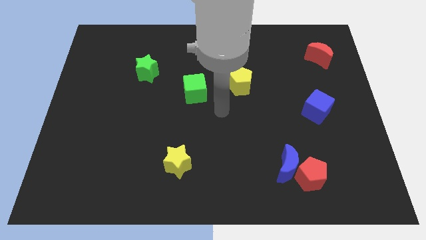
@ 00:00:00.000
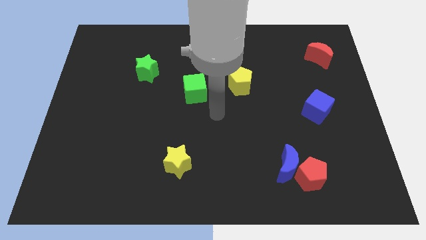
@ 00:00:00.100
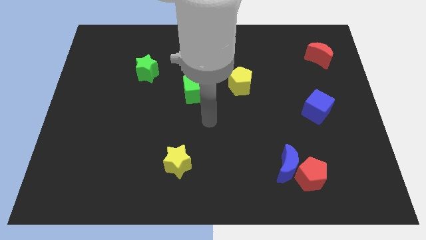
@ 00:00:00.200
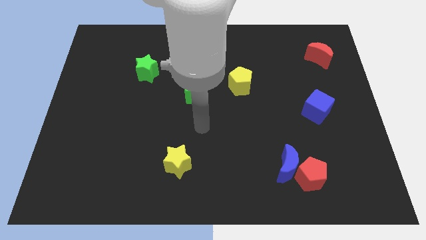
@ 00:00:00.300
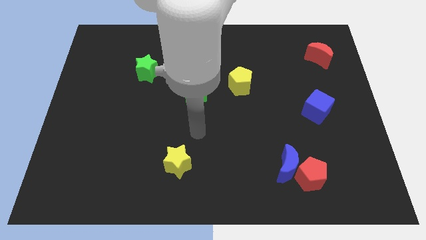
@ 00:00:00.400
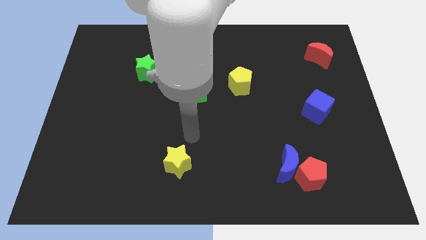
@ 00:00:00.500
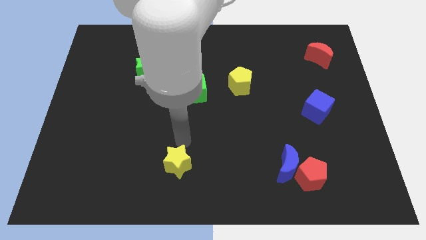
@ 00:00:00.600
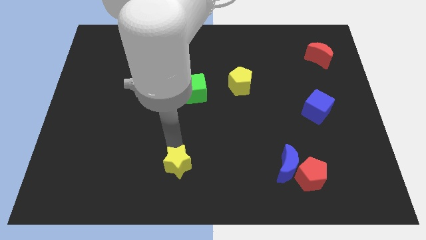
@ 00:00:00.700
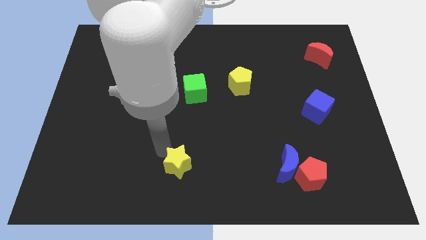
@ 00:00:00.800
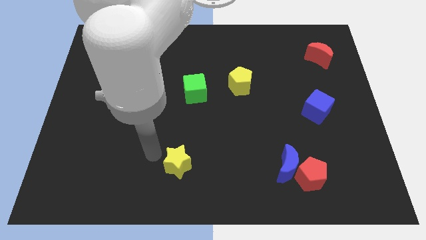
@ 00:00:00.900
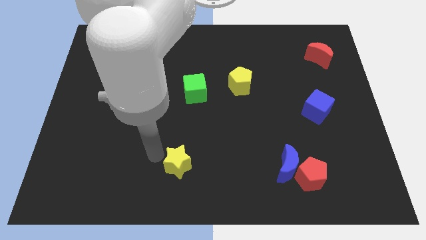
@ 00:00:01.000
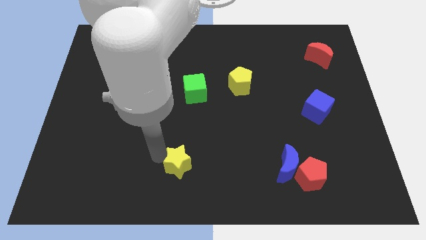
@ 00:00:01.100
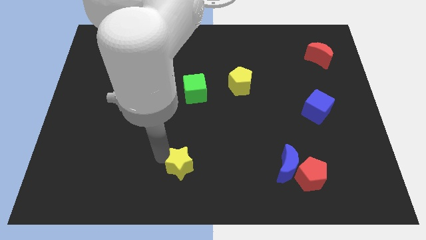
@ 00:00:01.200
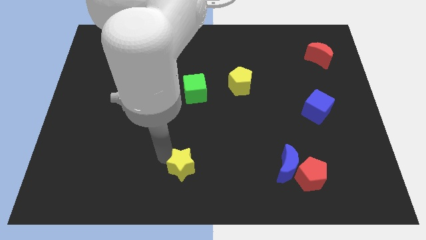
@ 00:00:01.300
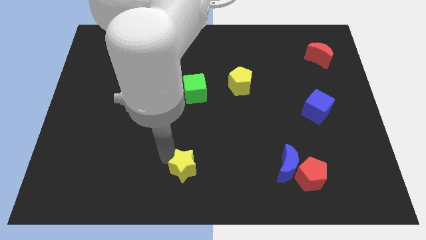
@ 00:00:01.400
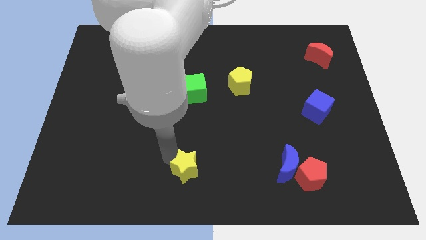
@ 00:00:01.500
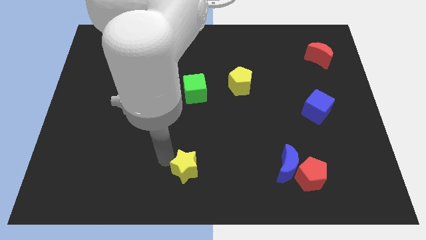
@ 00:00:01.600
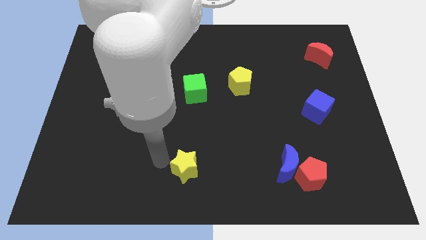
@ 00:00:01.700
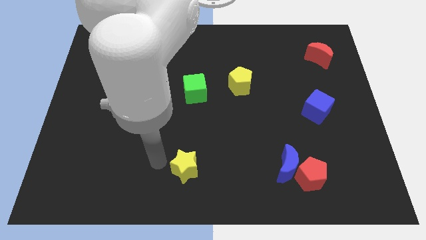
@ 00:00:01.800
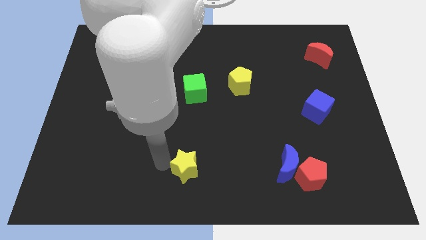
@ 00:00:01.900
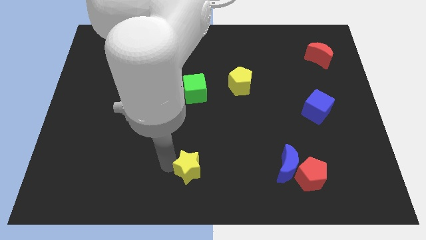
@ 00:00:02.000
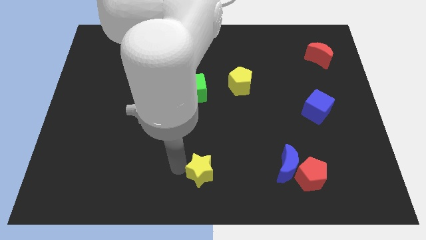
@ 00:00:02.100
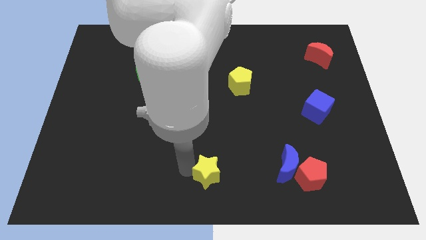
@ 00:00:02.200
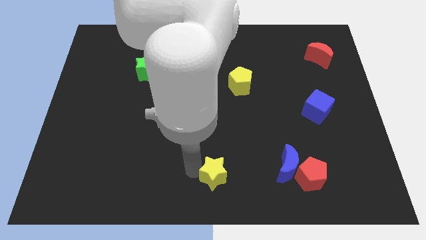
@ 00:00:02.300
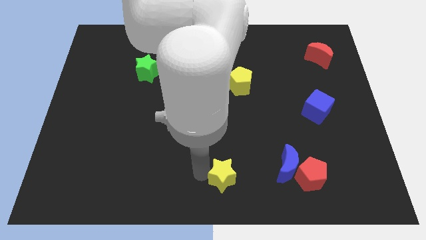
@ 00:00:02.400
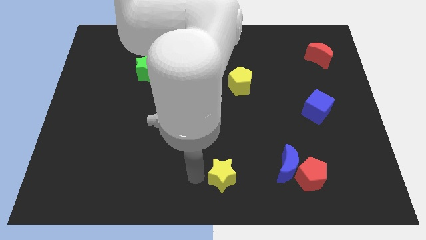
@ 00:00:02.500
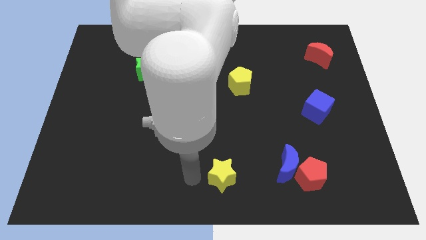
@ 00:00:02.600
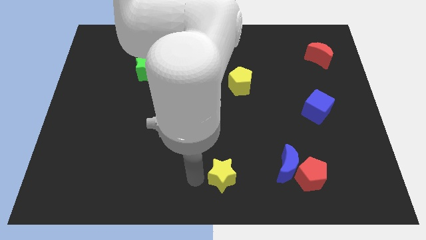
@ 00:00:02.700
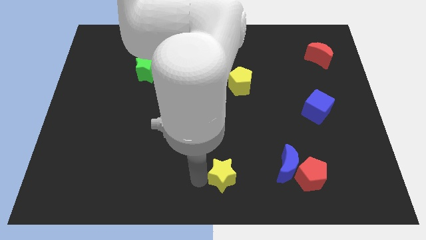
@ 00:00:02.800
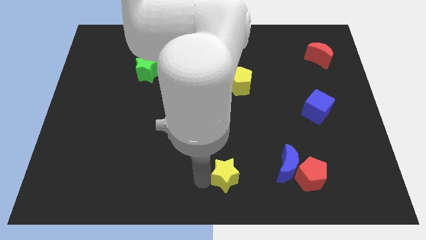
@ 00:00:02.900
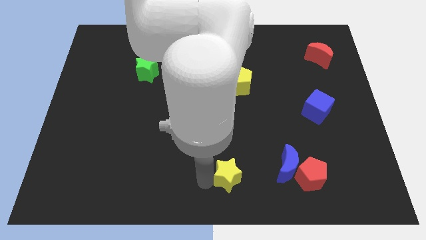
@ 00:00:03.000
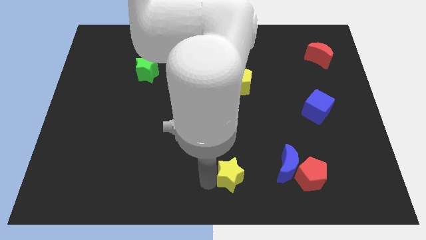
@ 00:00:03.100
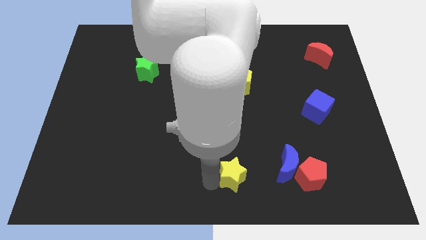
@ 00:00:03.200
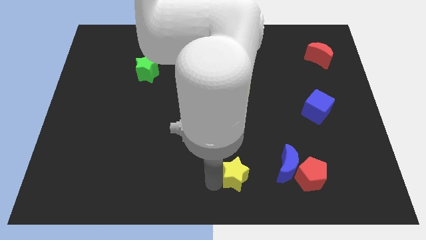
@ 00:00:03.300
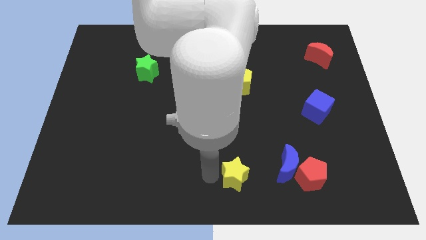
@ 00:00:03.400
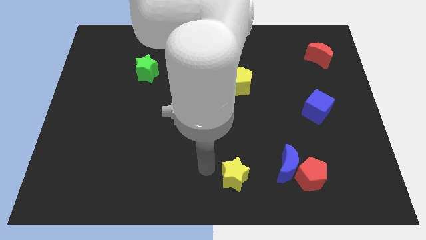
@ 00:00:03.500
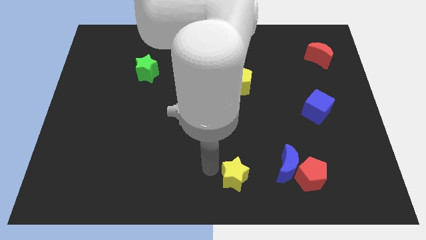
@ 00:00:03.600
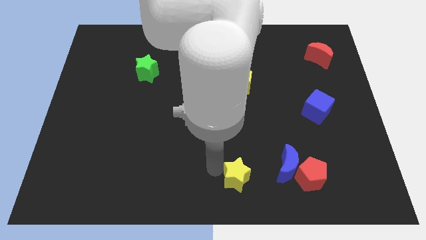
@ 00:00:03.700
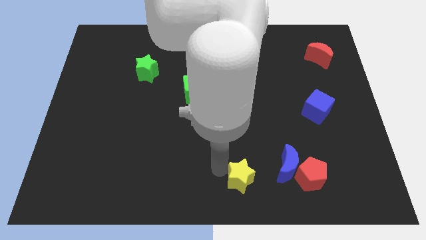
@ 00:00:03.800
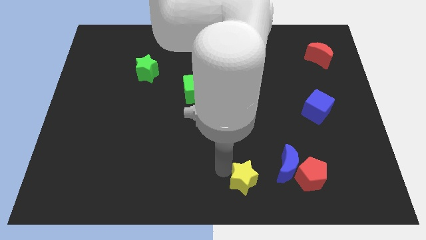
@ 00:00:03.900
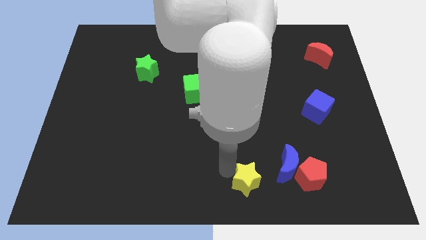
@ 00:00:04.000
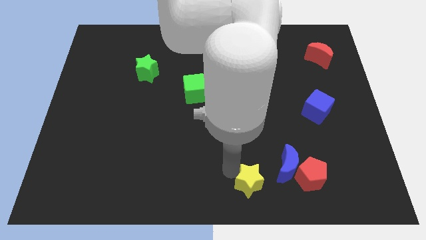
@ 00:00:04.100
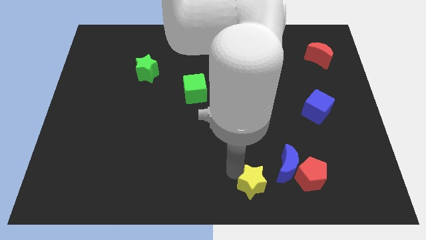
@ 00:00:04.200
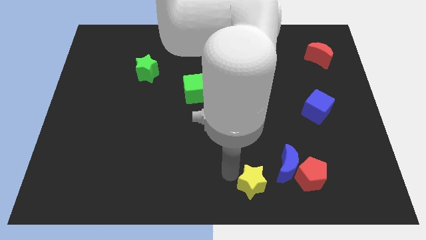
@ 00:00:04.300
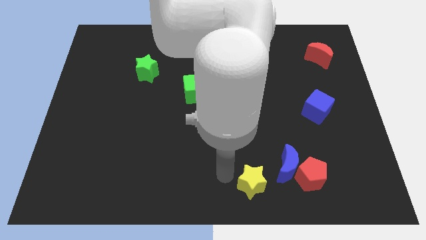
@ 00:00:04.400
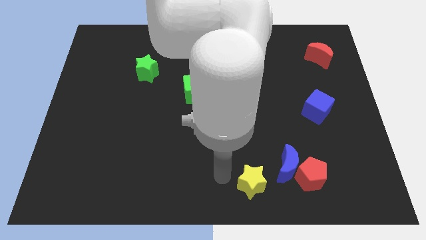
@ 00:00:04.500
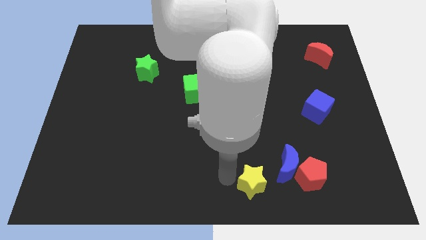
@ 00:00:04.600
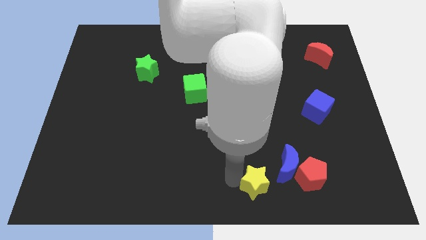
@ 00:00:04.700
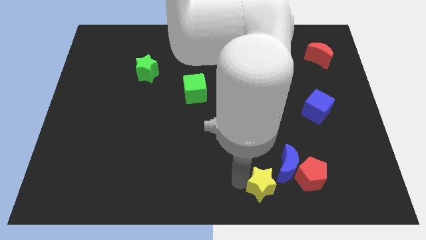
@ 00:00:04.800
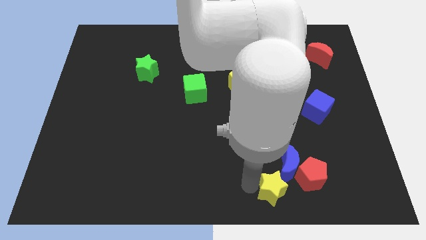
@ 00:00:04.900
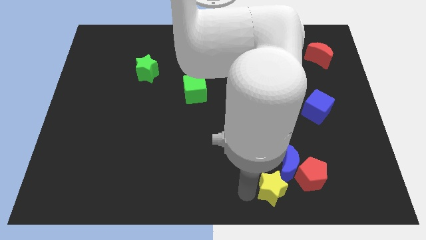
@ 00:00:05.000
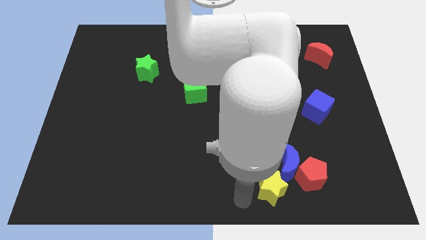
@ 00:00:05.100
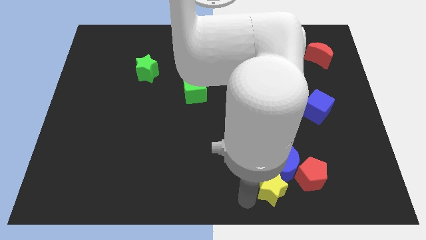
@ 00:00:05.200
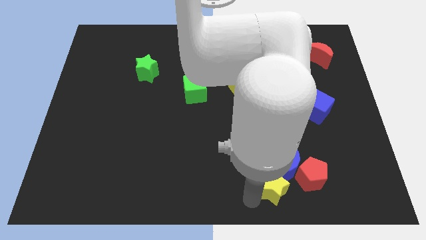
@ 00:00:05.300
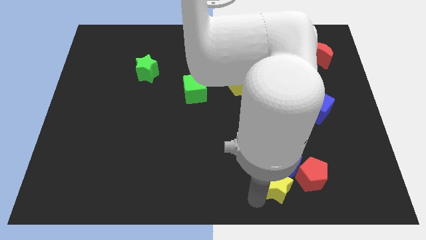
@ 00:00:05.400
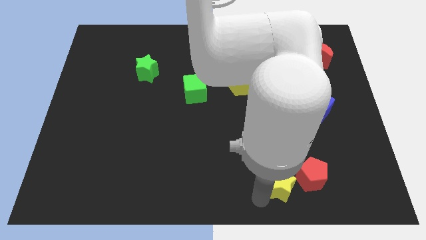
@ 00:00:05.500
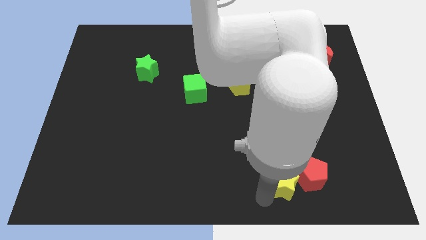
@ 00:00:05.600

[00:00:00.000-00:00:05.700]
put the yellow star to the red pentagon

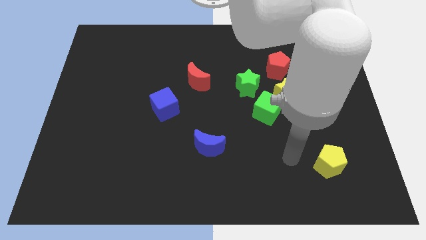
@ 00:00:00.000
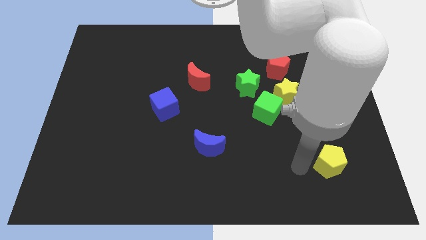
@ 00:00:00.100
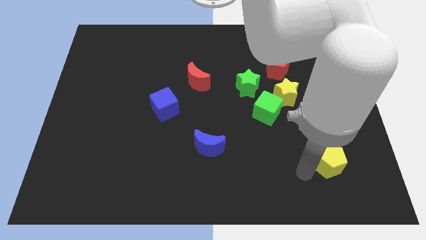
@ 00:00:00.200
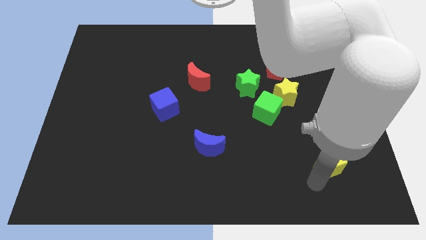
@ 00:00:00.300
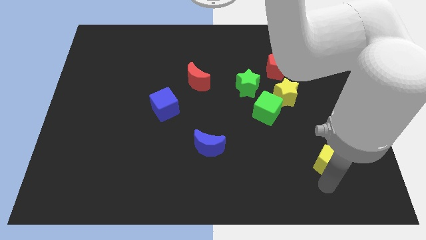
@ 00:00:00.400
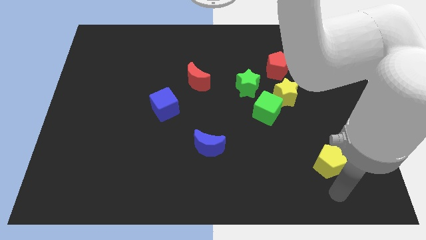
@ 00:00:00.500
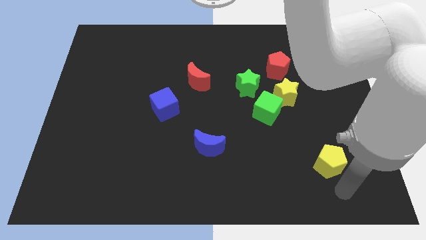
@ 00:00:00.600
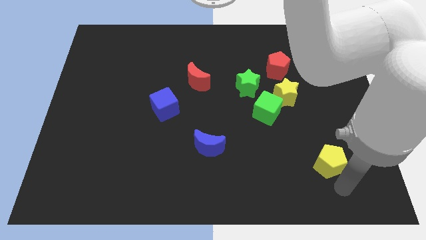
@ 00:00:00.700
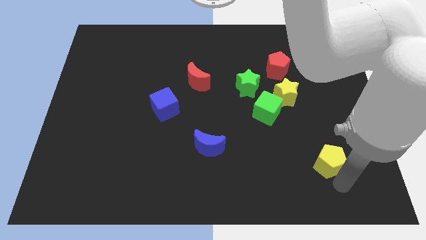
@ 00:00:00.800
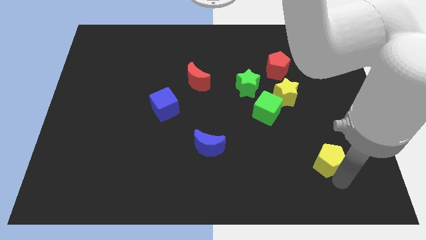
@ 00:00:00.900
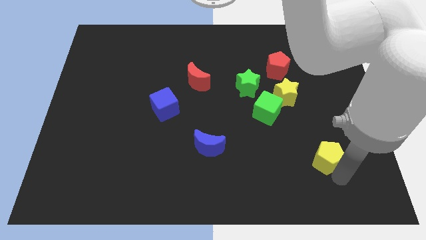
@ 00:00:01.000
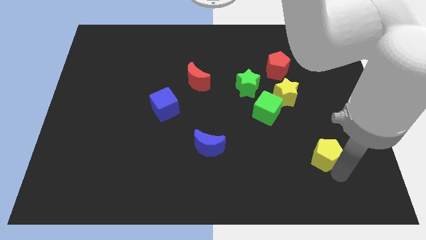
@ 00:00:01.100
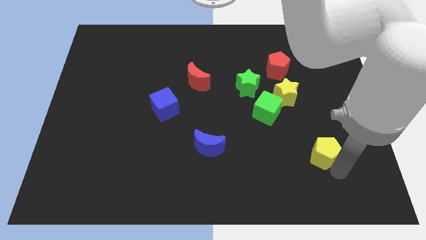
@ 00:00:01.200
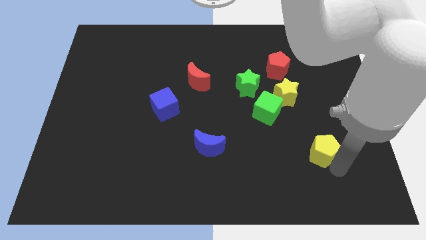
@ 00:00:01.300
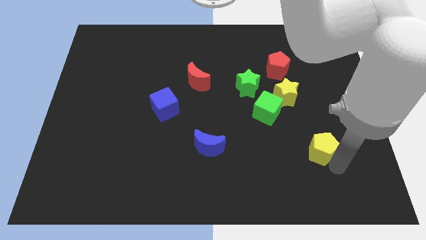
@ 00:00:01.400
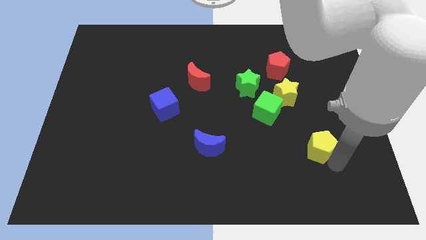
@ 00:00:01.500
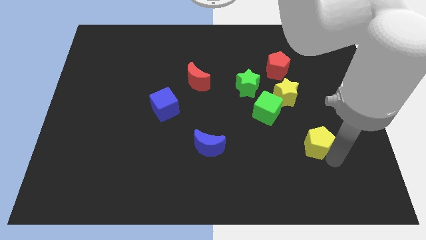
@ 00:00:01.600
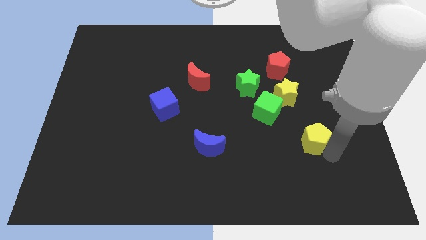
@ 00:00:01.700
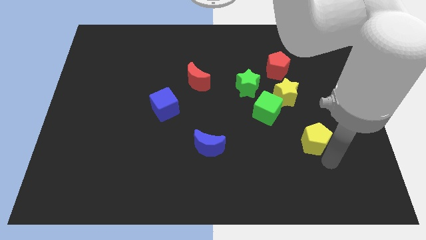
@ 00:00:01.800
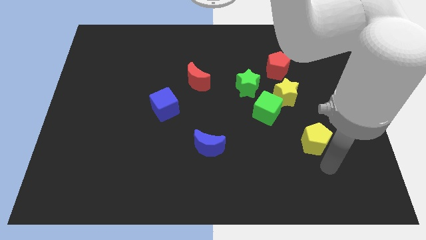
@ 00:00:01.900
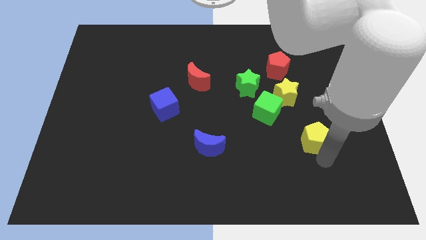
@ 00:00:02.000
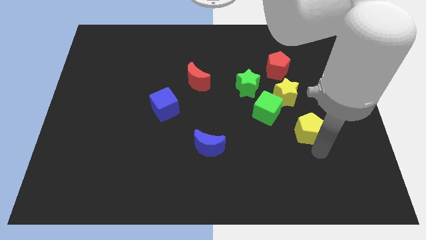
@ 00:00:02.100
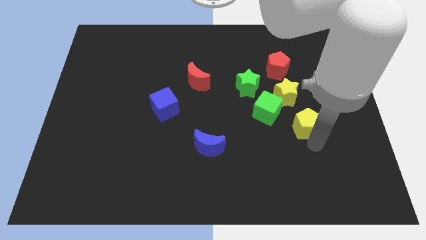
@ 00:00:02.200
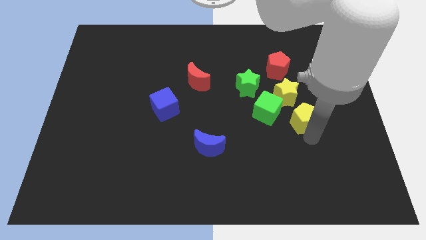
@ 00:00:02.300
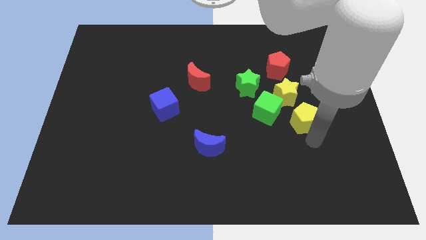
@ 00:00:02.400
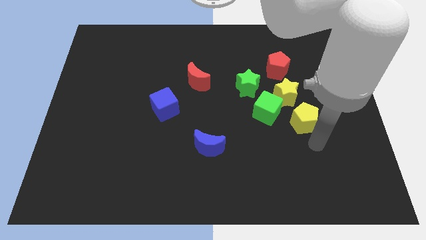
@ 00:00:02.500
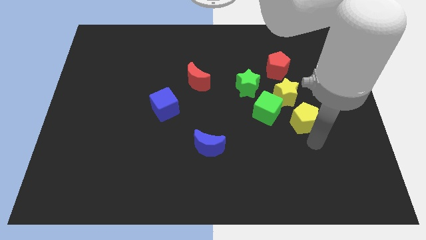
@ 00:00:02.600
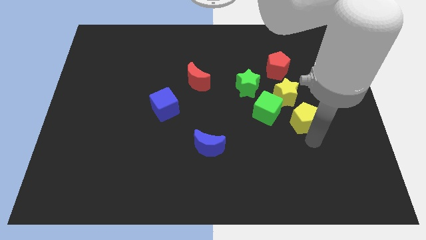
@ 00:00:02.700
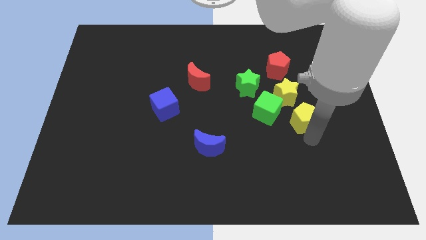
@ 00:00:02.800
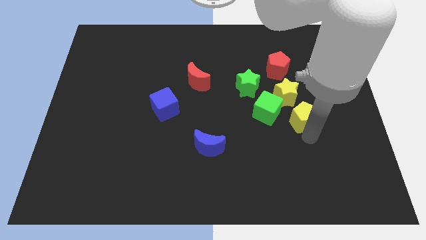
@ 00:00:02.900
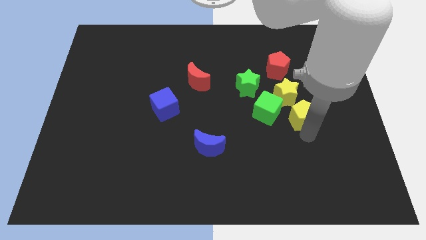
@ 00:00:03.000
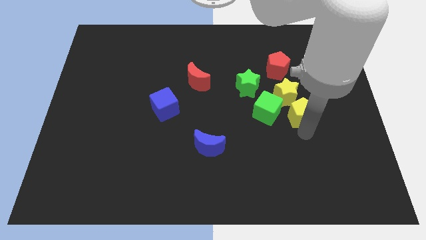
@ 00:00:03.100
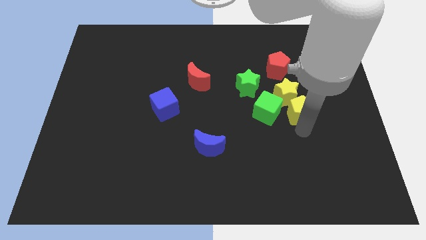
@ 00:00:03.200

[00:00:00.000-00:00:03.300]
put the yellow pentagon towards the yellow star
